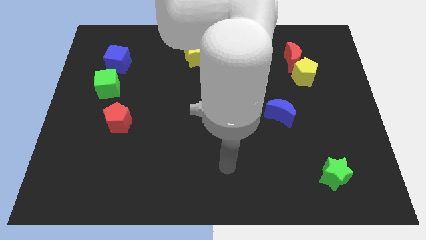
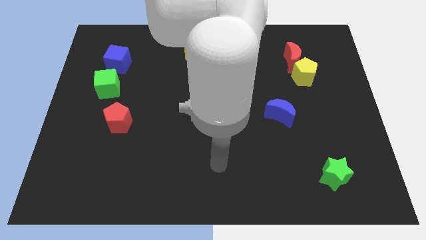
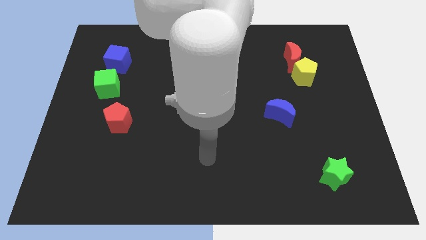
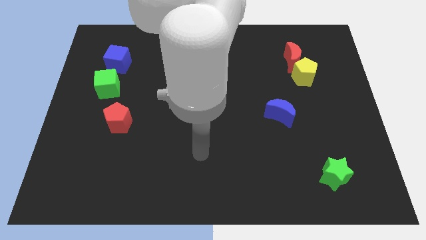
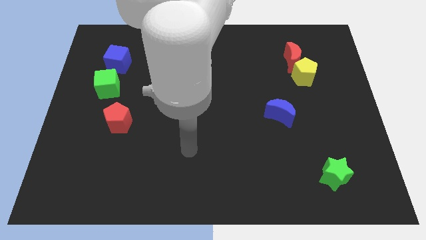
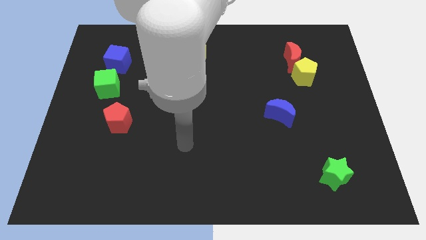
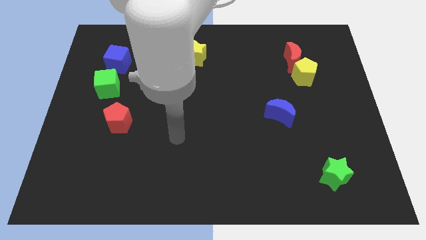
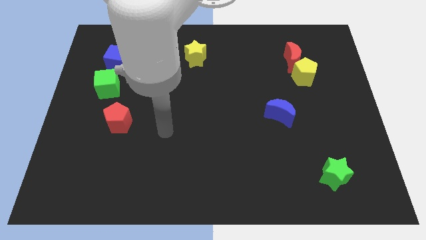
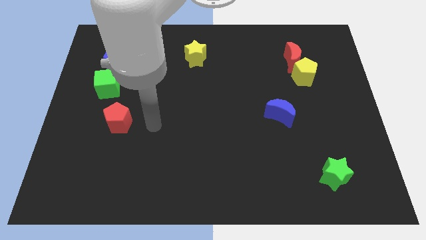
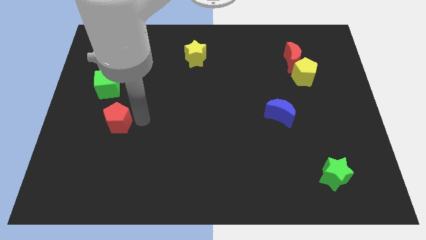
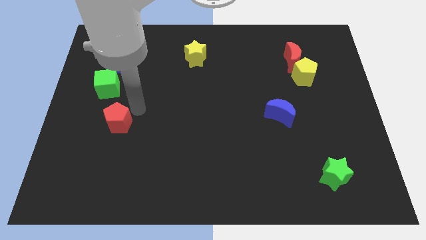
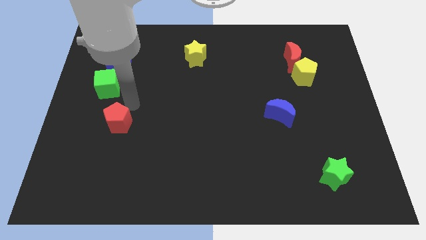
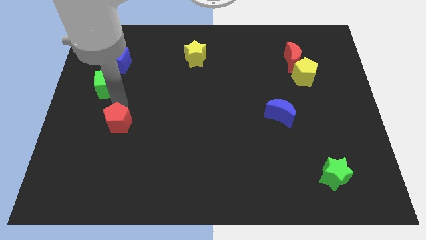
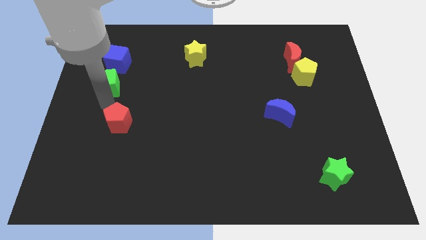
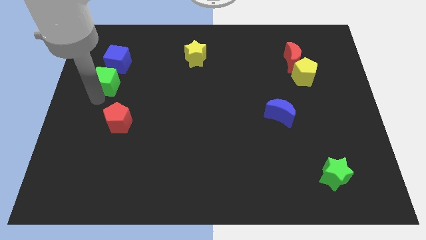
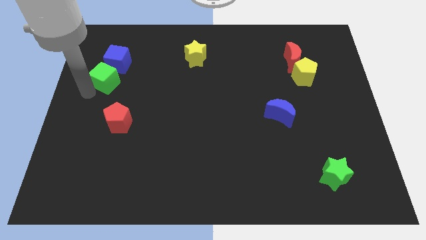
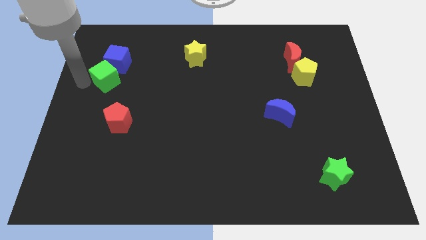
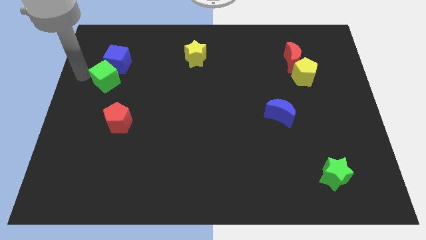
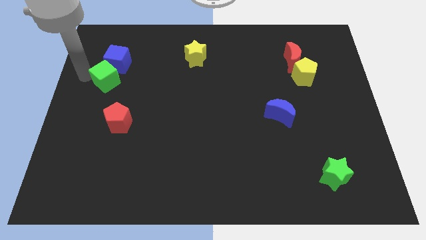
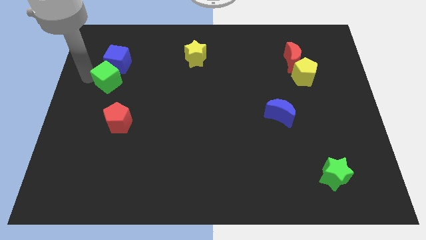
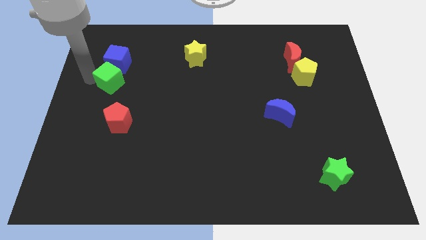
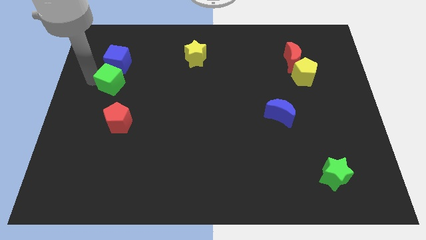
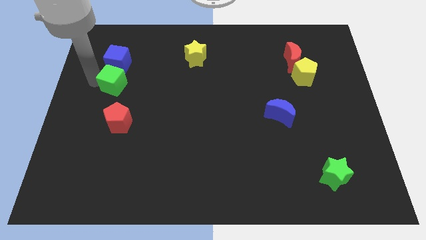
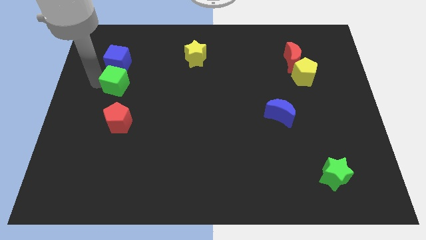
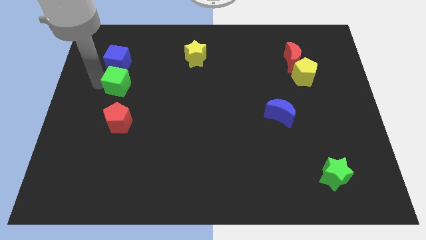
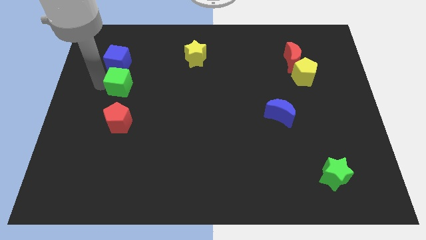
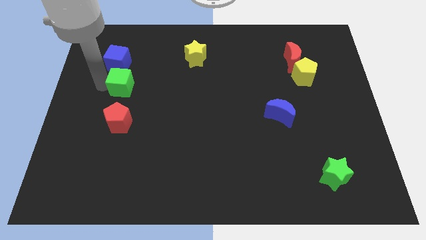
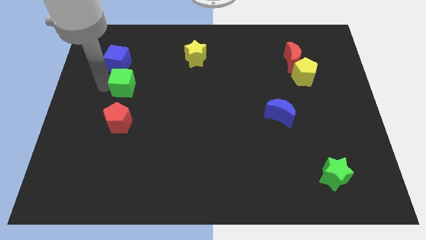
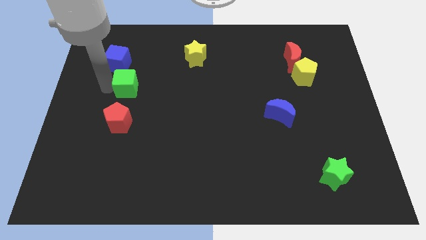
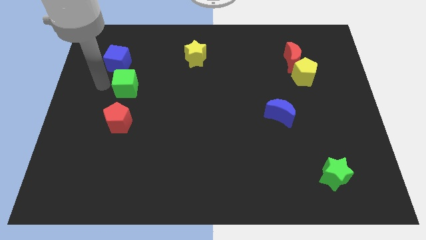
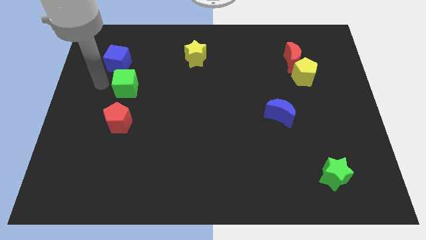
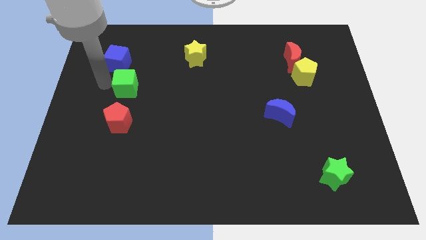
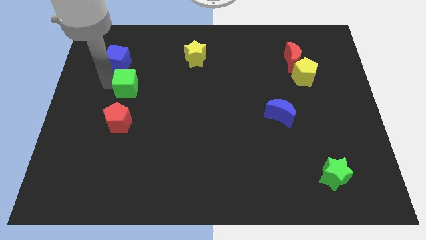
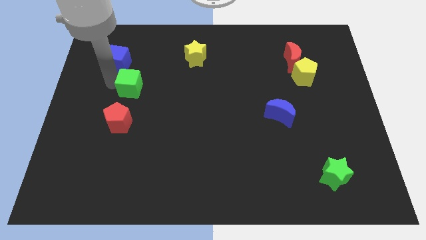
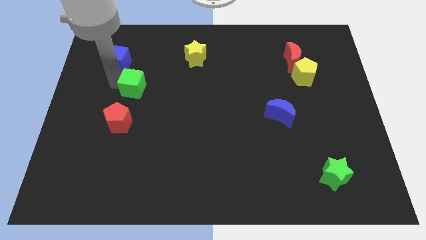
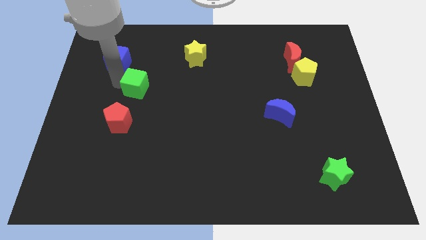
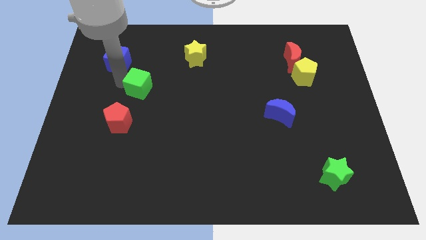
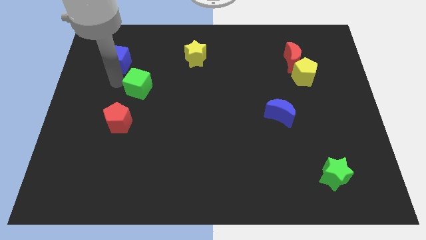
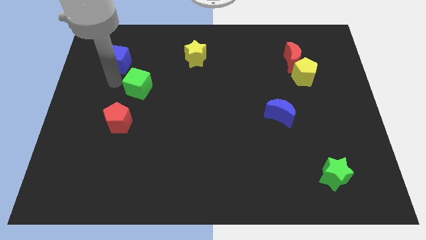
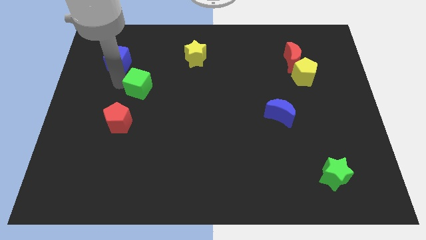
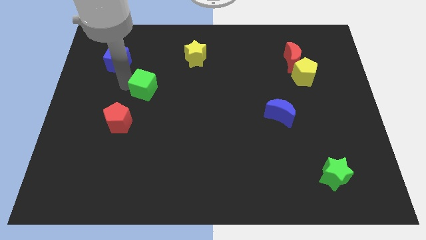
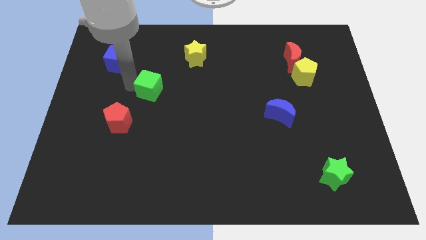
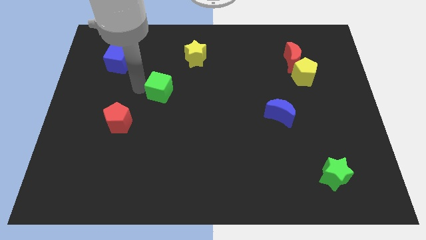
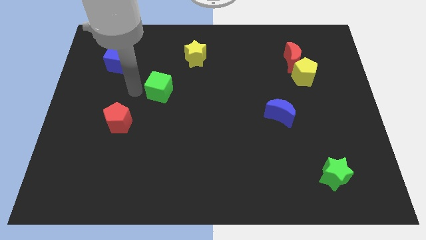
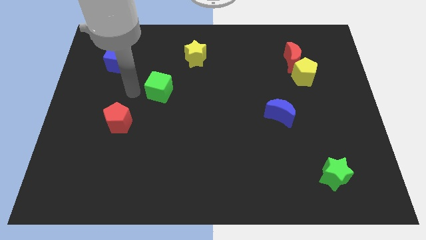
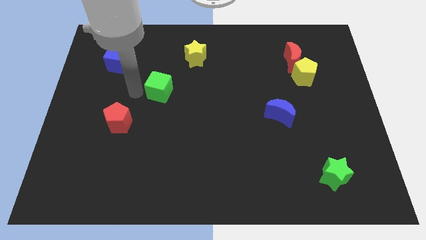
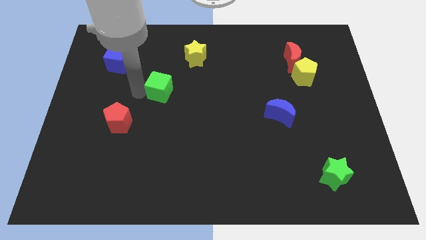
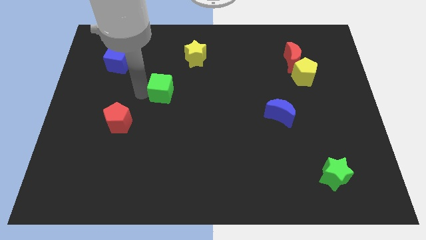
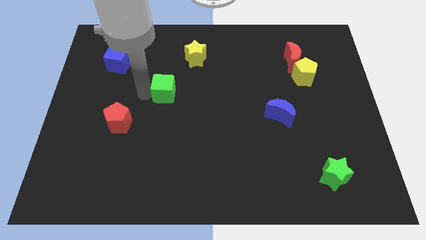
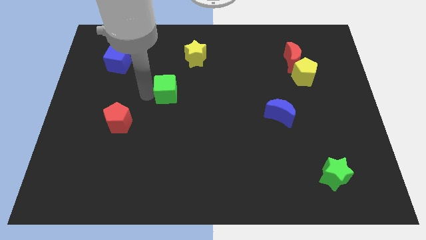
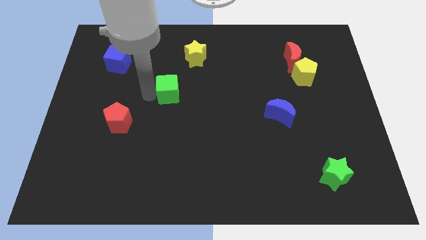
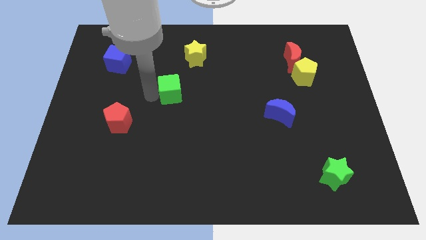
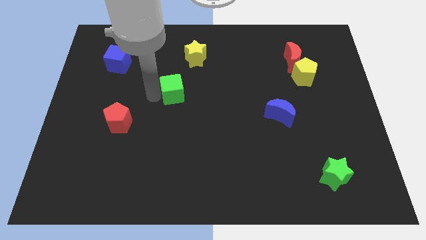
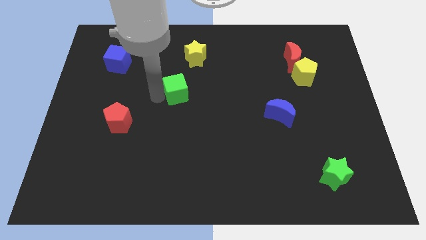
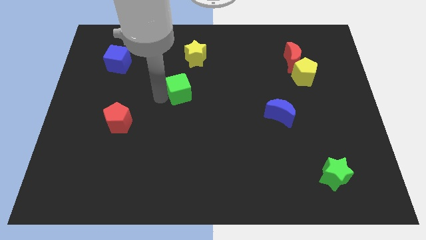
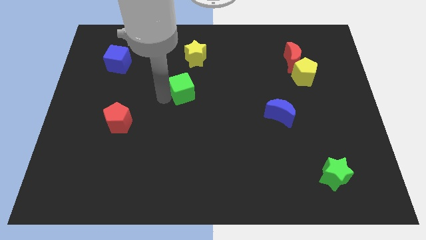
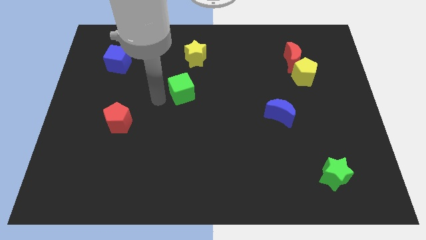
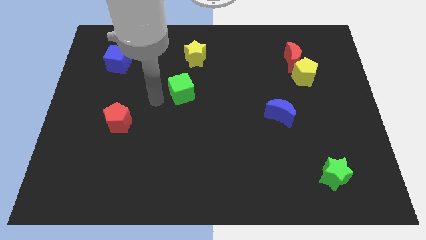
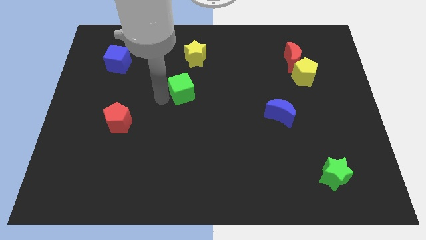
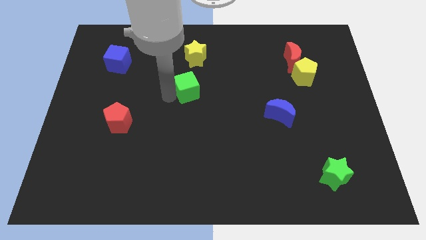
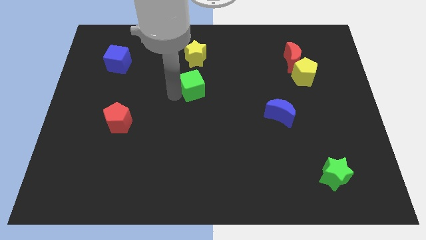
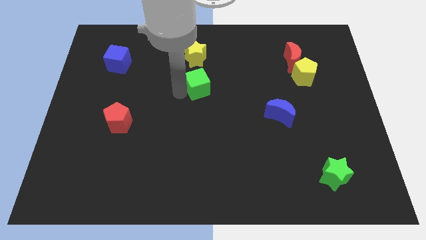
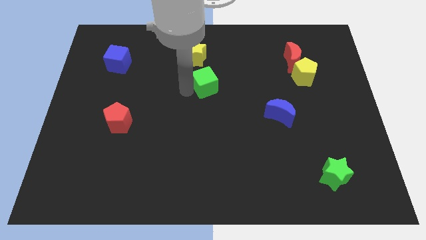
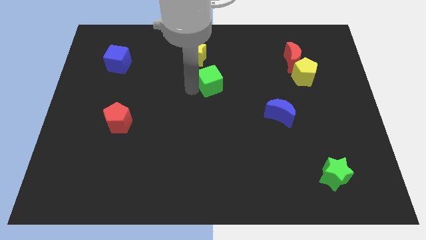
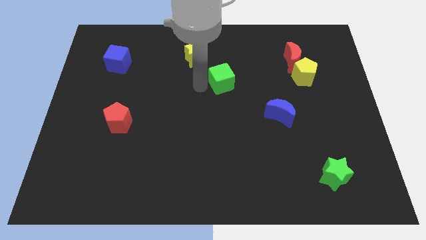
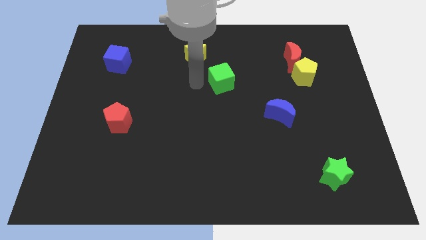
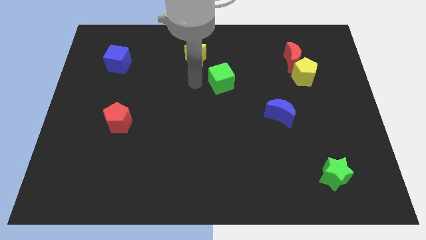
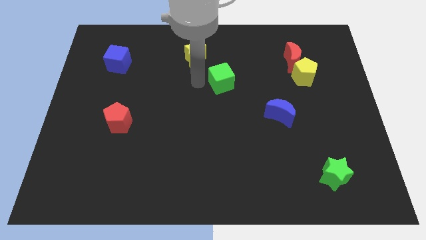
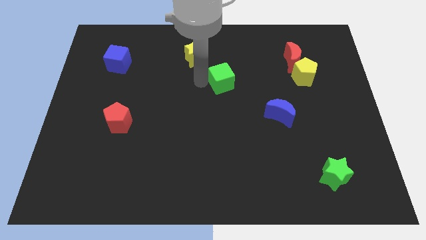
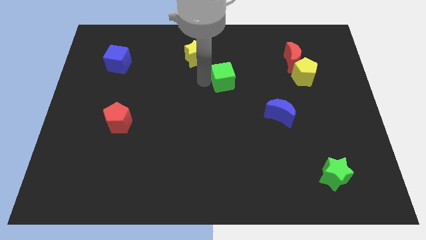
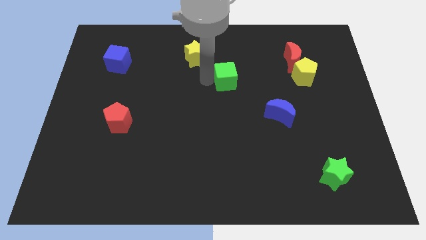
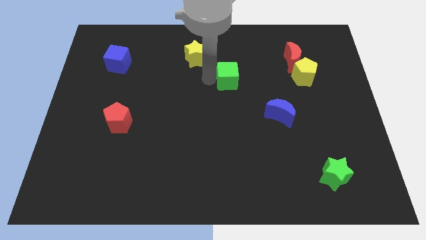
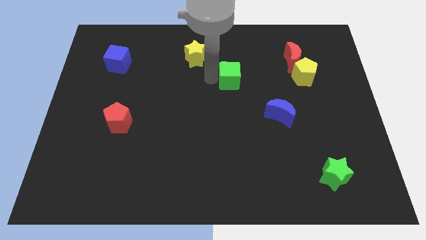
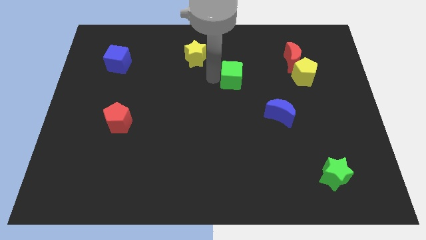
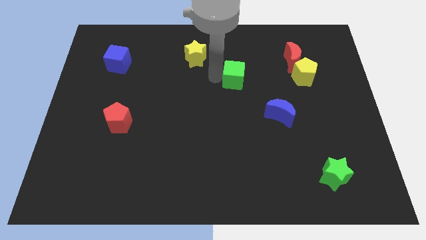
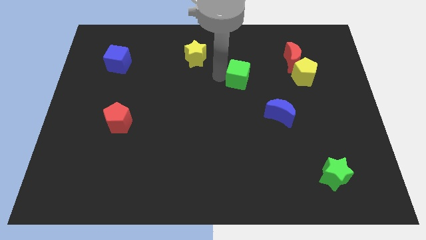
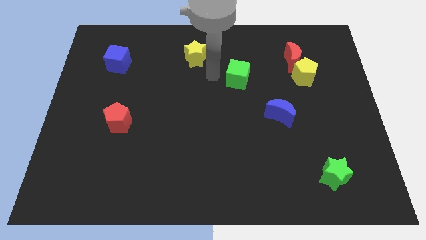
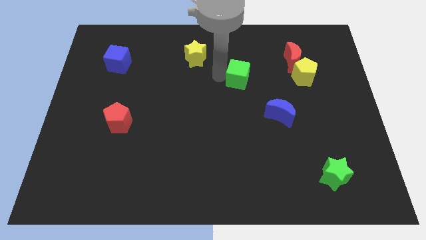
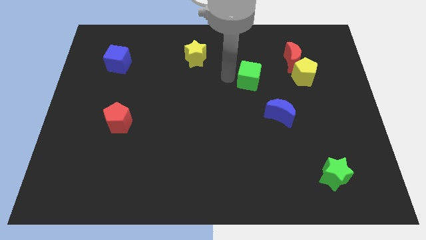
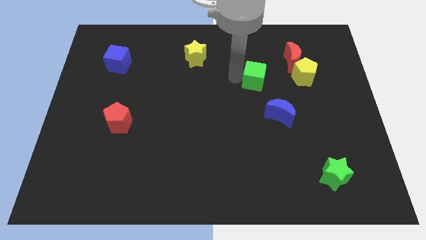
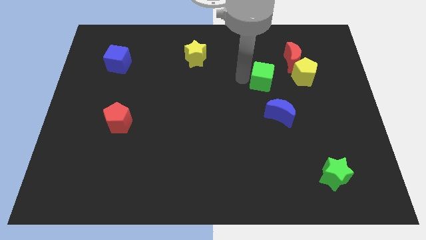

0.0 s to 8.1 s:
push the green cube above the blue moon
